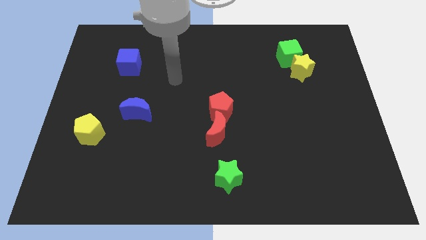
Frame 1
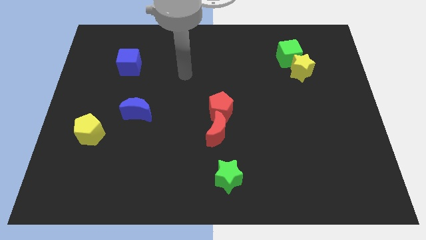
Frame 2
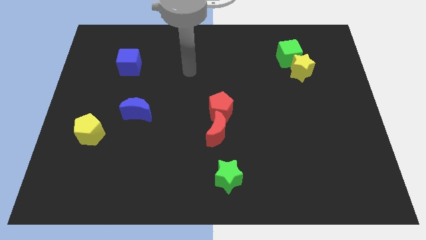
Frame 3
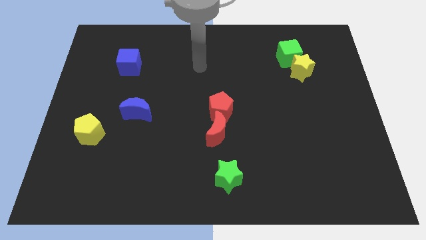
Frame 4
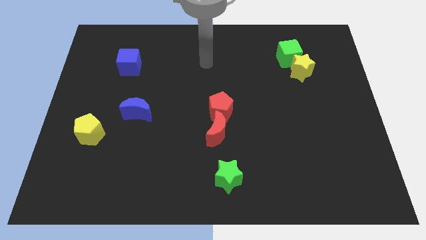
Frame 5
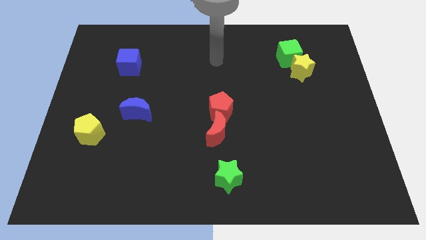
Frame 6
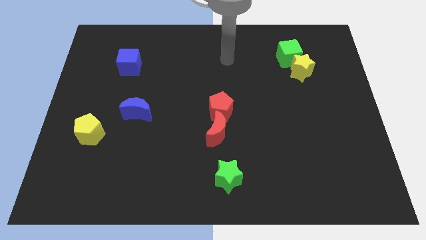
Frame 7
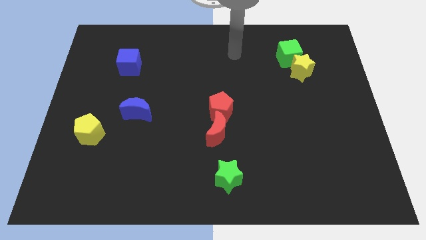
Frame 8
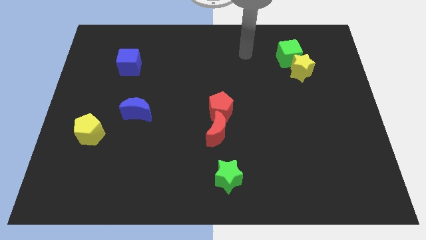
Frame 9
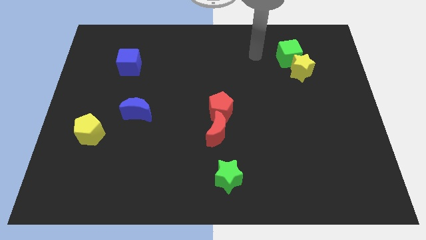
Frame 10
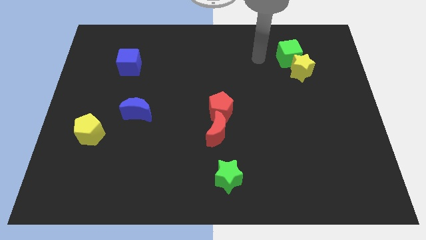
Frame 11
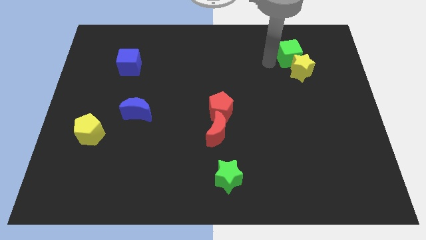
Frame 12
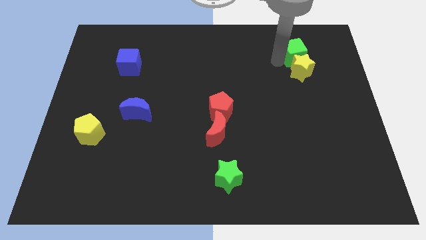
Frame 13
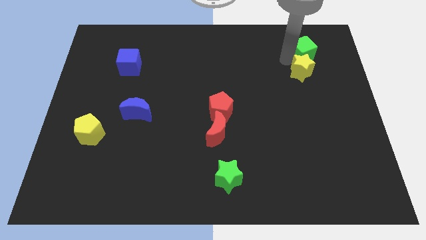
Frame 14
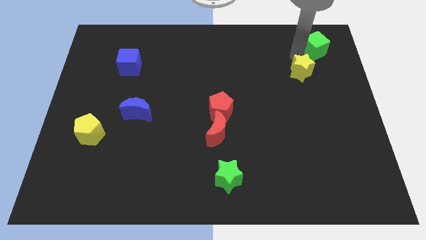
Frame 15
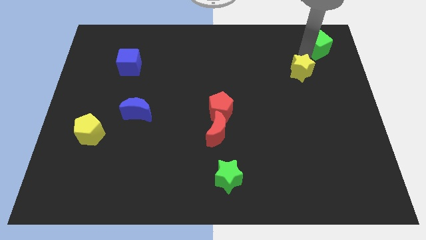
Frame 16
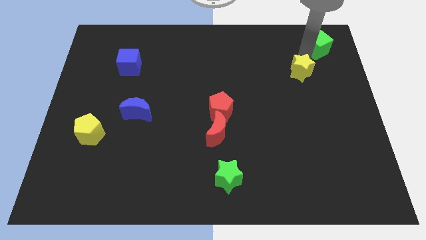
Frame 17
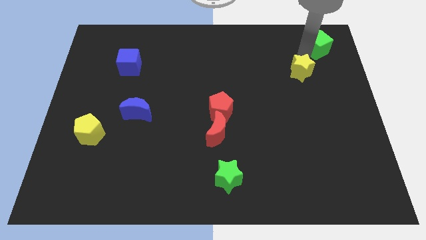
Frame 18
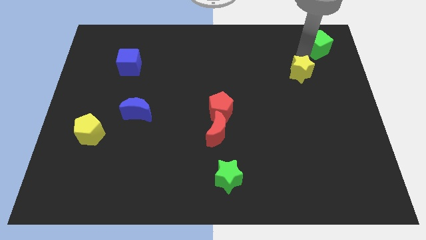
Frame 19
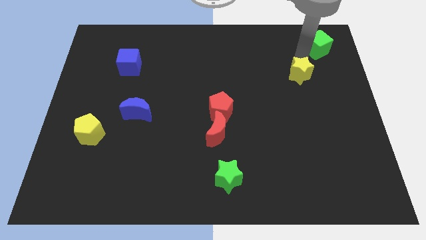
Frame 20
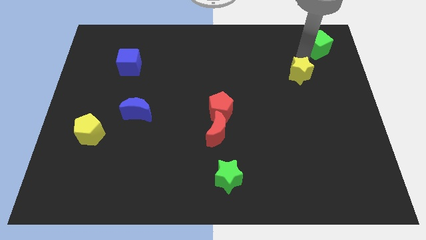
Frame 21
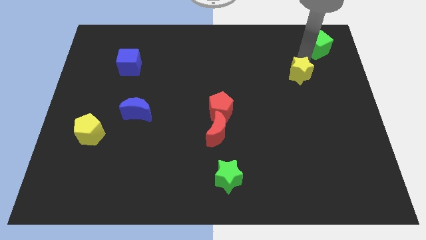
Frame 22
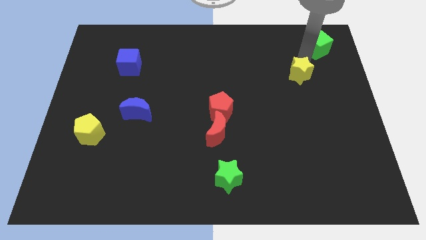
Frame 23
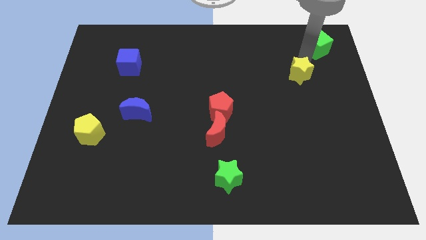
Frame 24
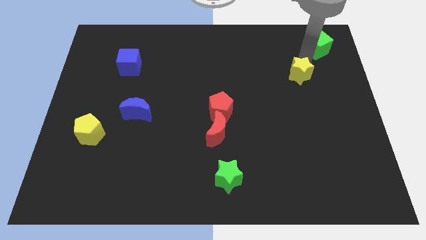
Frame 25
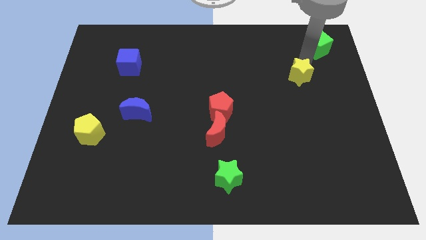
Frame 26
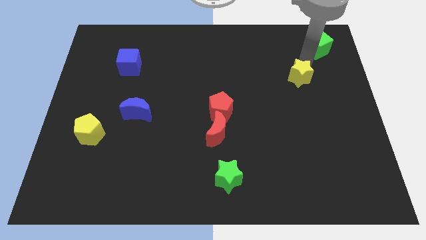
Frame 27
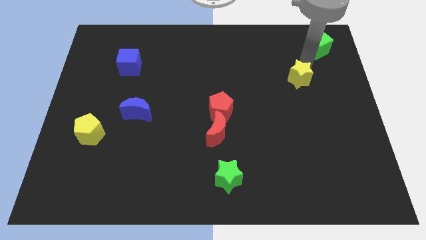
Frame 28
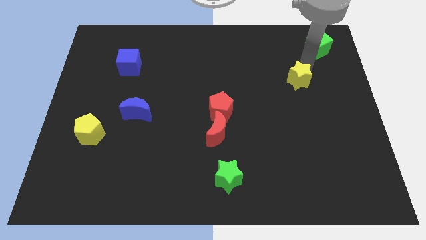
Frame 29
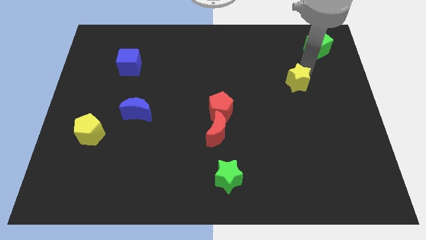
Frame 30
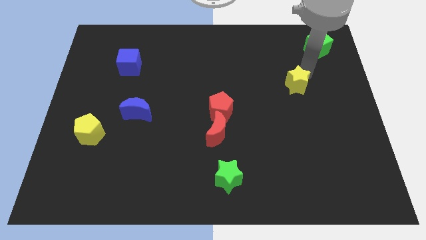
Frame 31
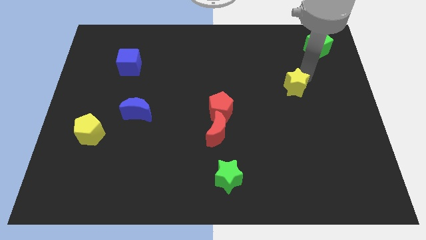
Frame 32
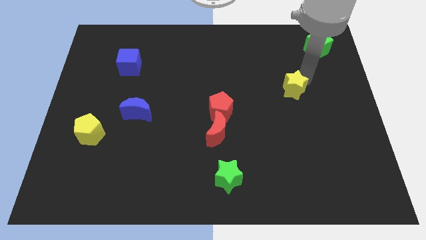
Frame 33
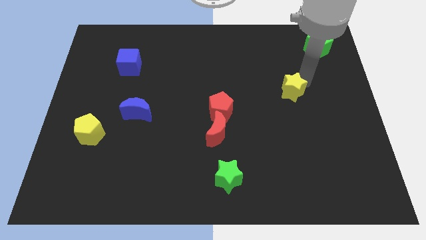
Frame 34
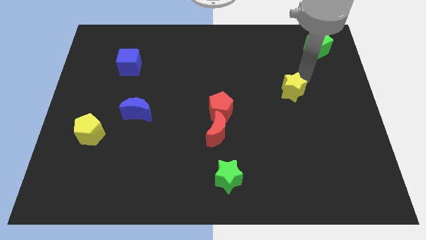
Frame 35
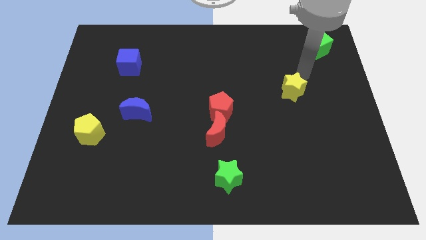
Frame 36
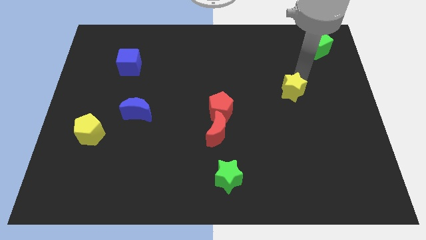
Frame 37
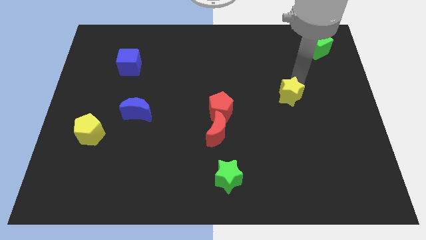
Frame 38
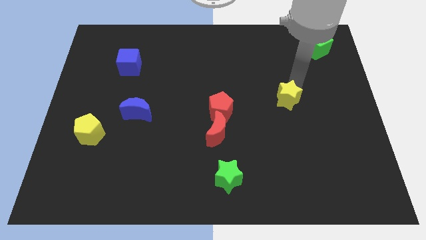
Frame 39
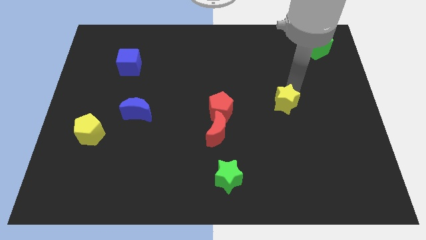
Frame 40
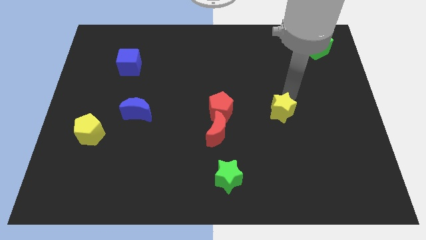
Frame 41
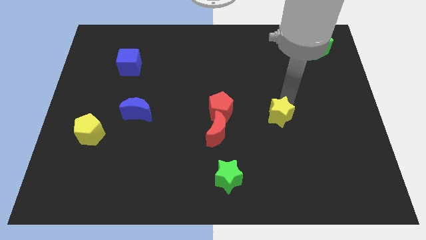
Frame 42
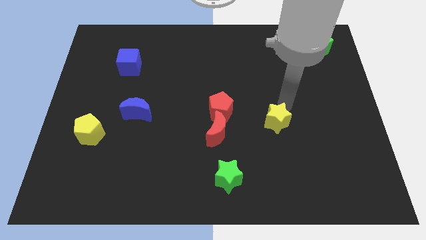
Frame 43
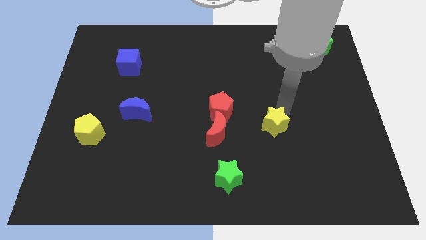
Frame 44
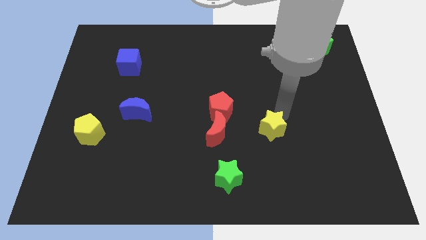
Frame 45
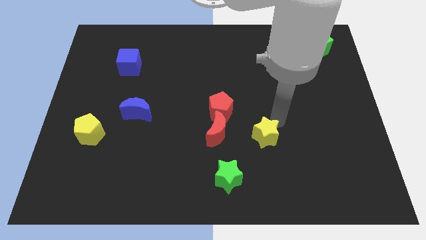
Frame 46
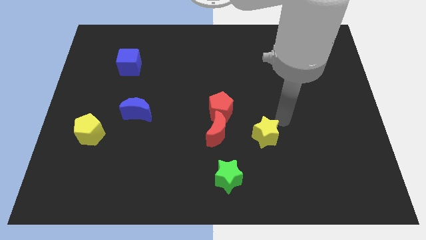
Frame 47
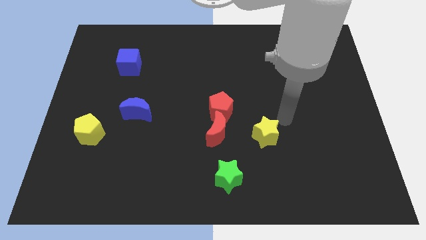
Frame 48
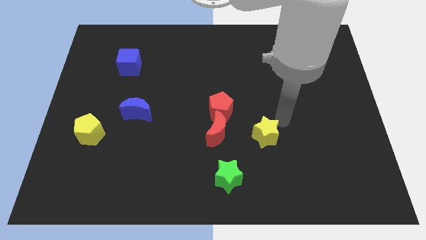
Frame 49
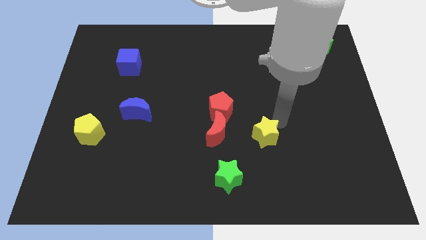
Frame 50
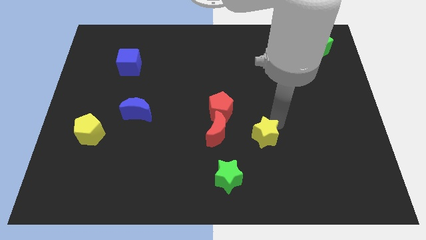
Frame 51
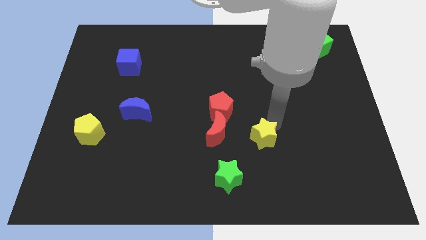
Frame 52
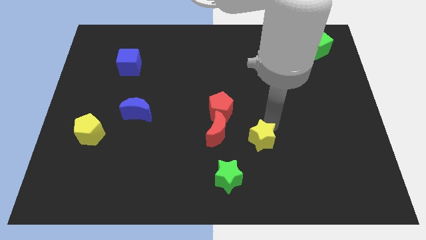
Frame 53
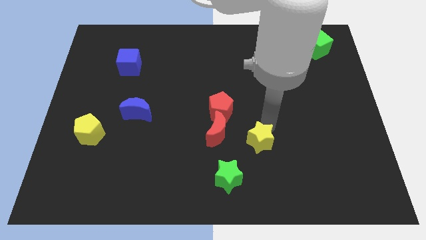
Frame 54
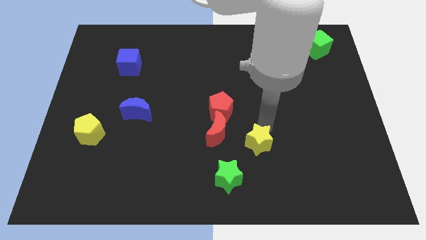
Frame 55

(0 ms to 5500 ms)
slide the yellow star to the bottom right side of the red moon

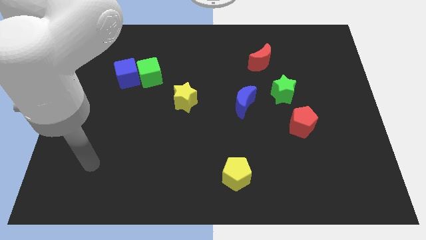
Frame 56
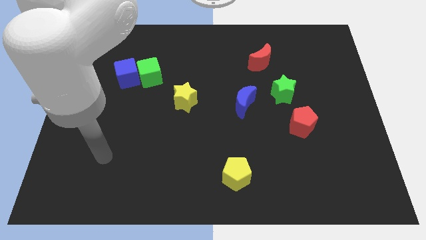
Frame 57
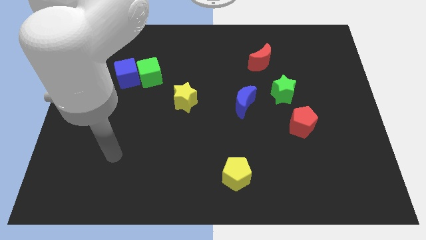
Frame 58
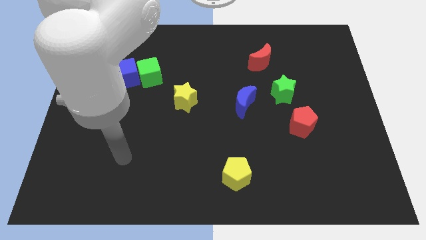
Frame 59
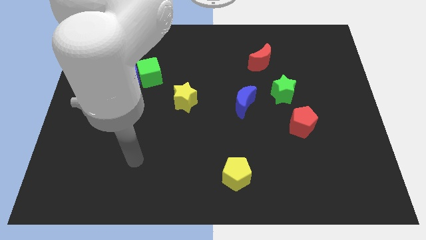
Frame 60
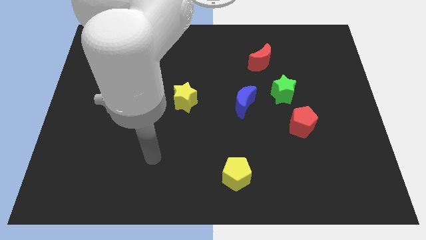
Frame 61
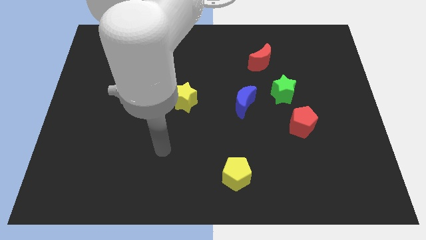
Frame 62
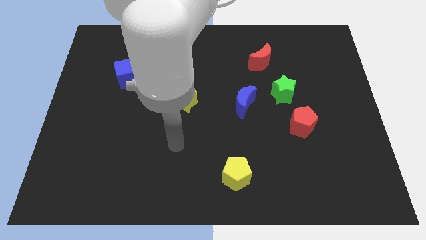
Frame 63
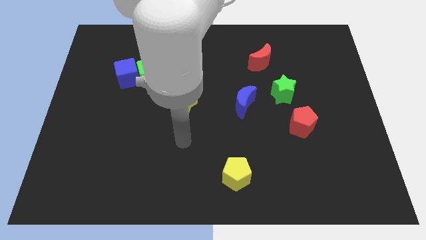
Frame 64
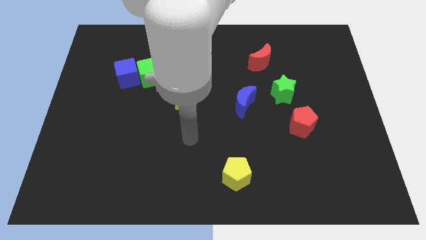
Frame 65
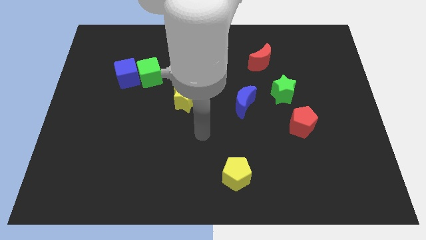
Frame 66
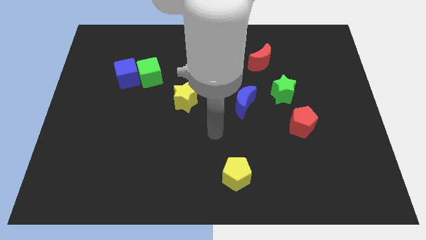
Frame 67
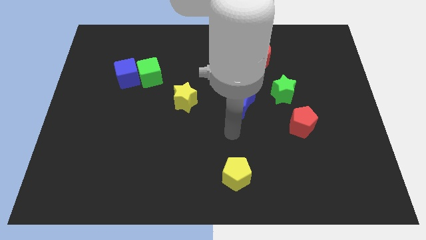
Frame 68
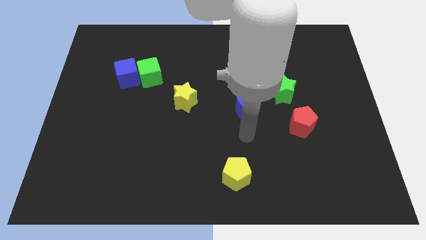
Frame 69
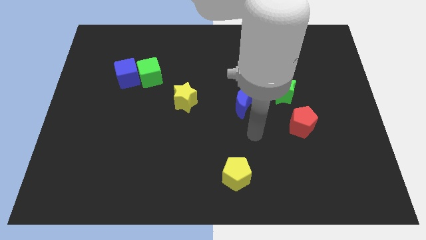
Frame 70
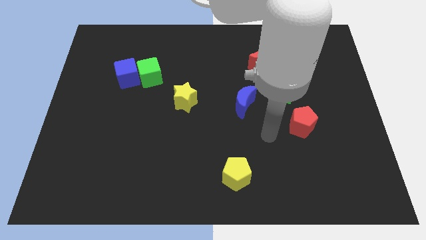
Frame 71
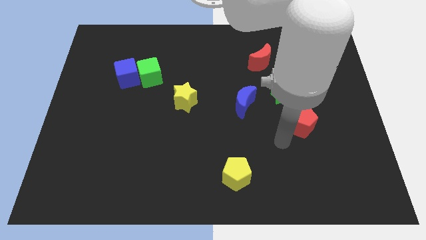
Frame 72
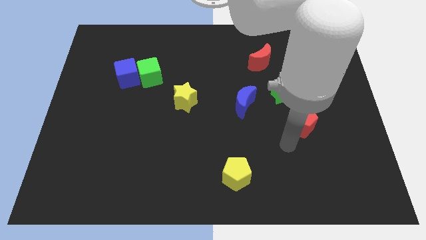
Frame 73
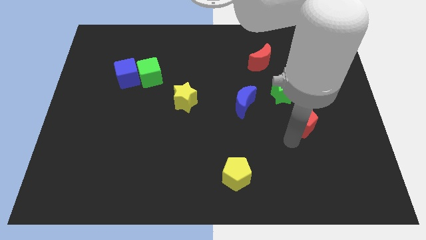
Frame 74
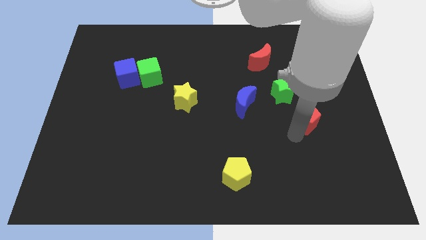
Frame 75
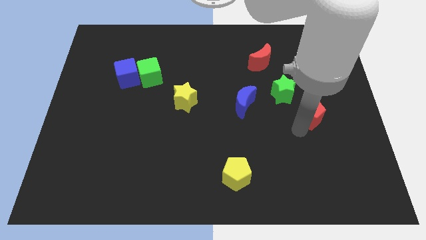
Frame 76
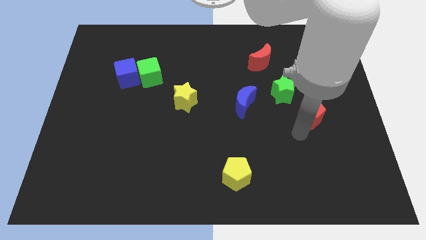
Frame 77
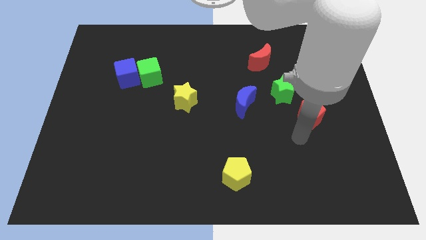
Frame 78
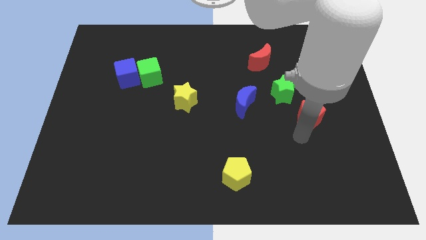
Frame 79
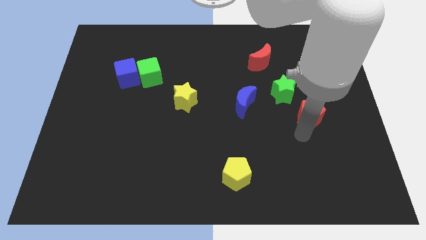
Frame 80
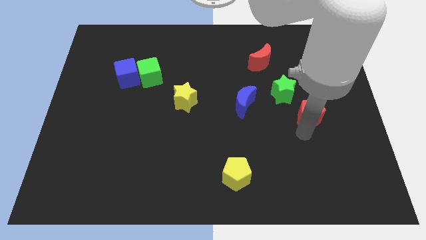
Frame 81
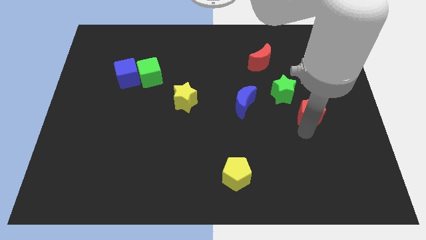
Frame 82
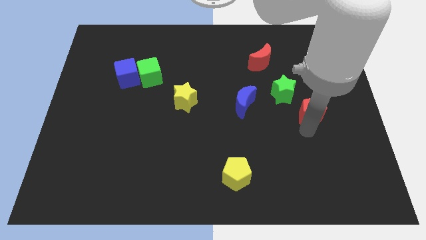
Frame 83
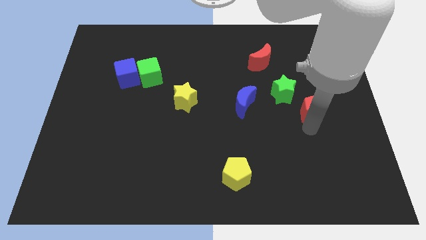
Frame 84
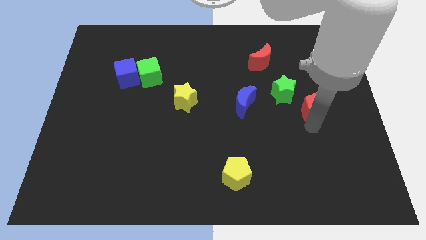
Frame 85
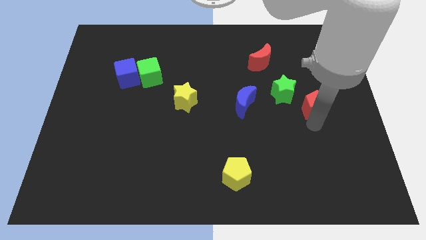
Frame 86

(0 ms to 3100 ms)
slide the red pentagon right of the green star
